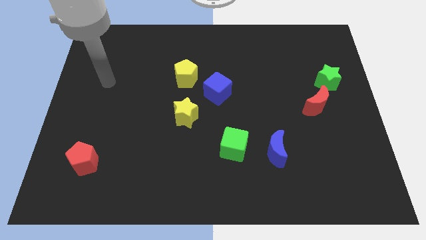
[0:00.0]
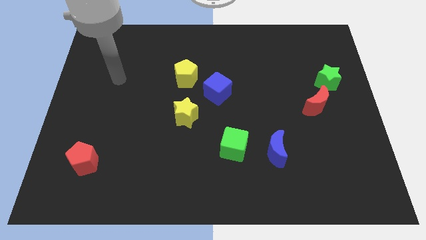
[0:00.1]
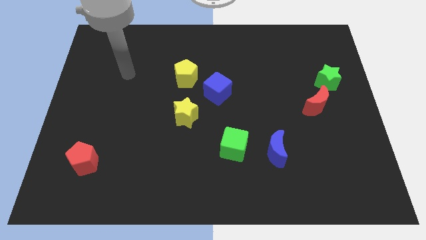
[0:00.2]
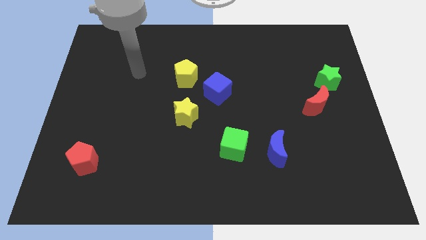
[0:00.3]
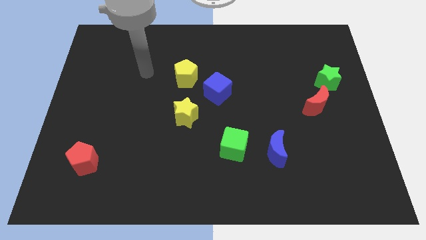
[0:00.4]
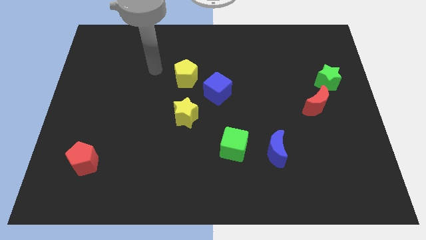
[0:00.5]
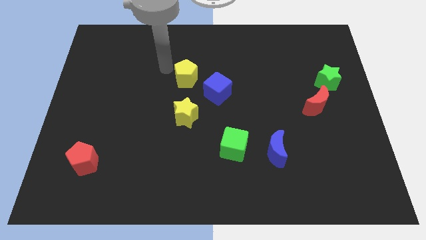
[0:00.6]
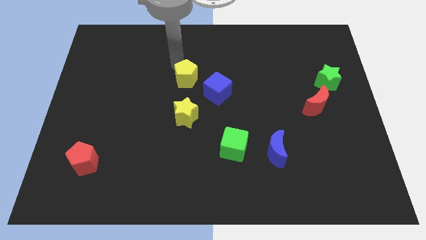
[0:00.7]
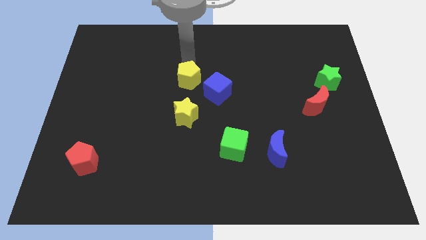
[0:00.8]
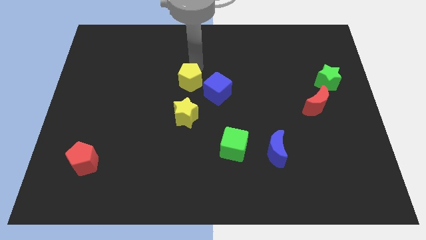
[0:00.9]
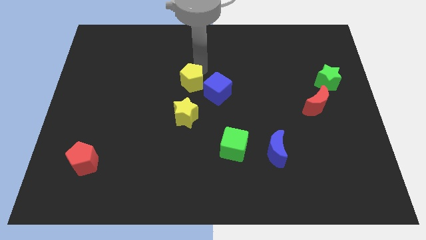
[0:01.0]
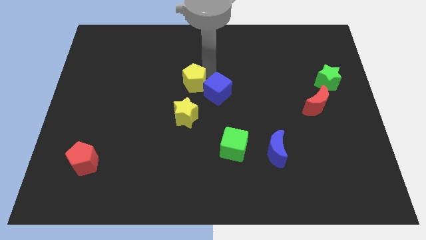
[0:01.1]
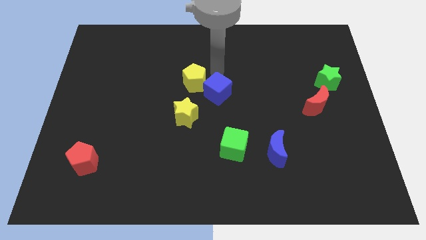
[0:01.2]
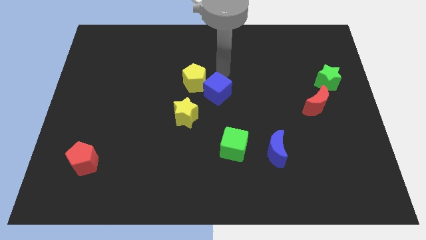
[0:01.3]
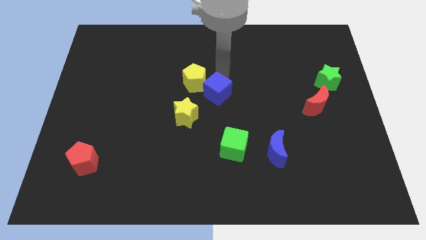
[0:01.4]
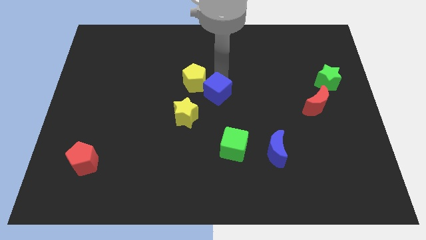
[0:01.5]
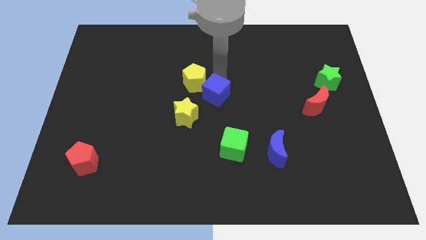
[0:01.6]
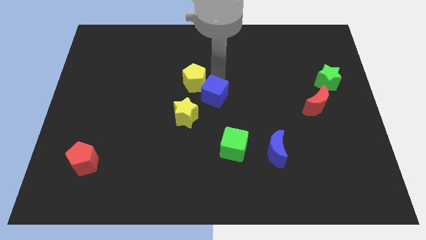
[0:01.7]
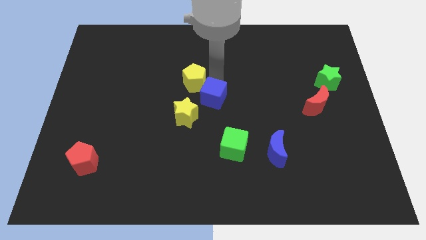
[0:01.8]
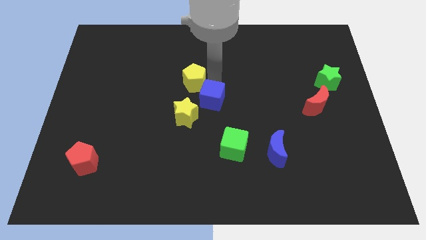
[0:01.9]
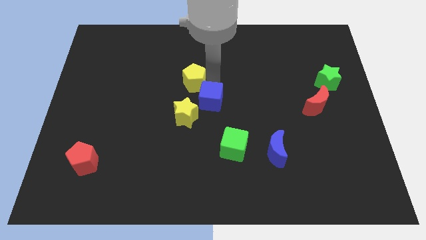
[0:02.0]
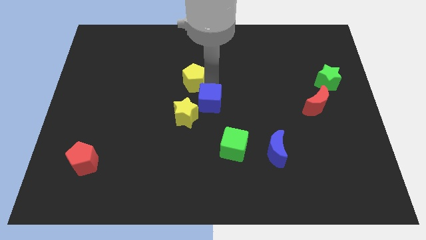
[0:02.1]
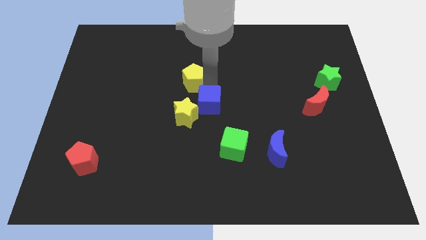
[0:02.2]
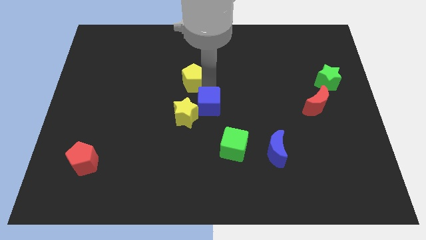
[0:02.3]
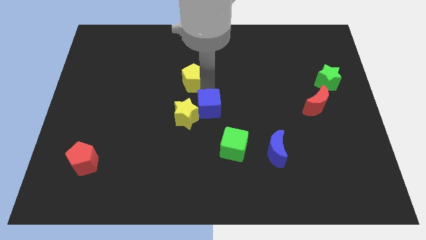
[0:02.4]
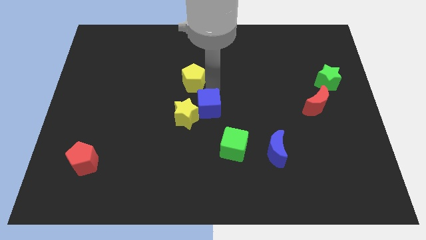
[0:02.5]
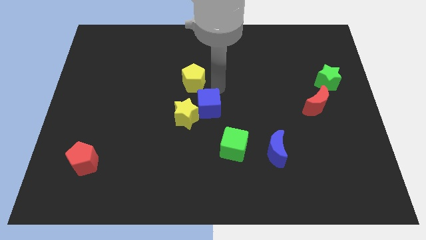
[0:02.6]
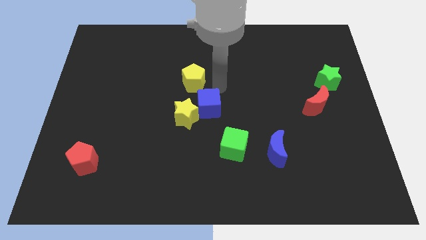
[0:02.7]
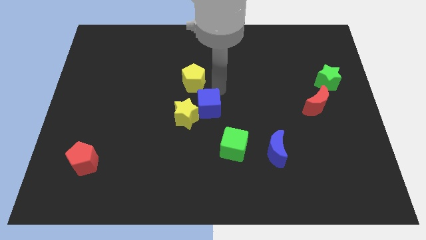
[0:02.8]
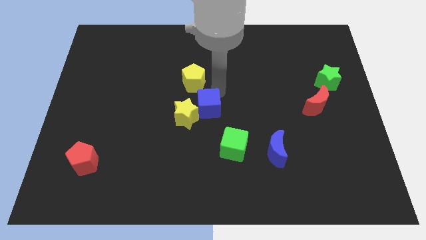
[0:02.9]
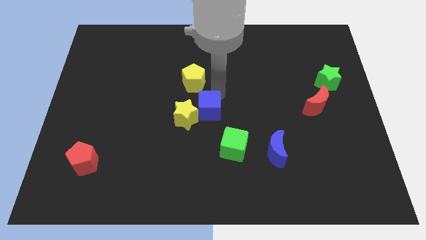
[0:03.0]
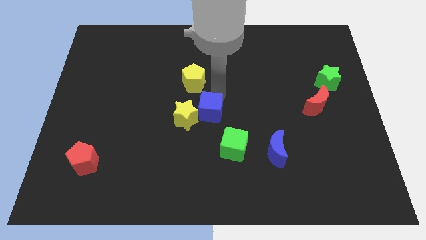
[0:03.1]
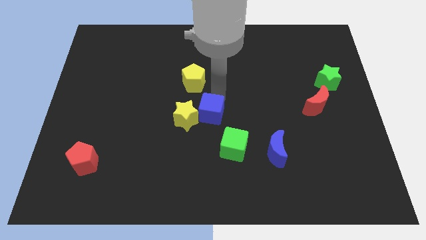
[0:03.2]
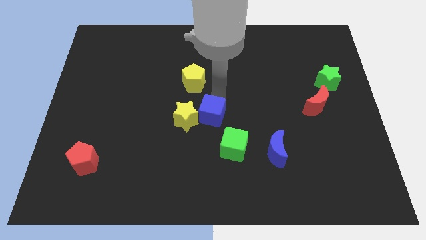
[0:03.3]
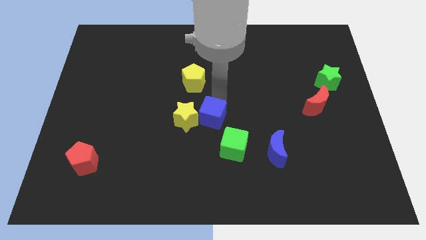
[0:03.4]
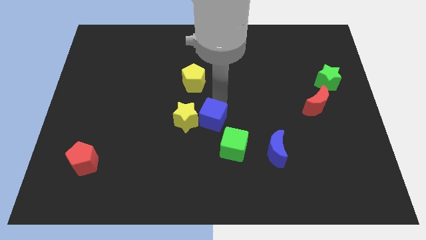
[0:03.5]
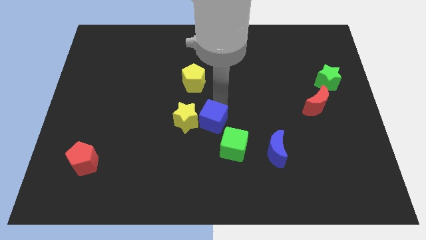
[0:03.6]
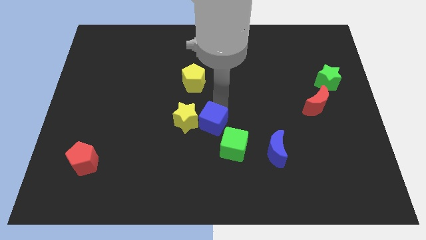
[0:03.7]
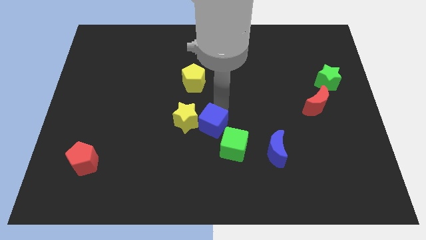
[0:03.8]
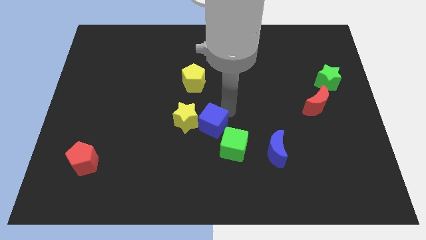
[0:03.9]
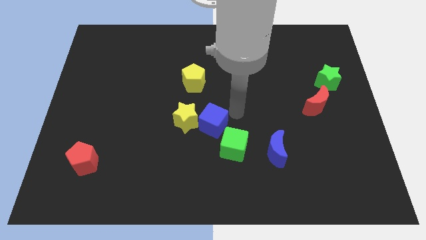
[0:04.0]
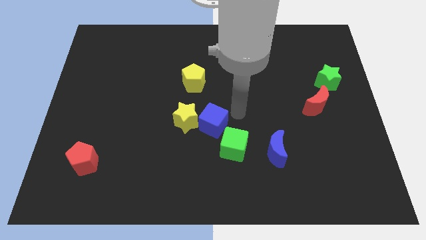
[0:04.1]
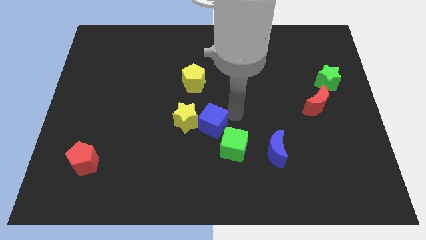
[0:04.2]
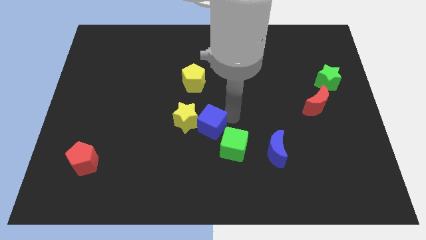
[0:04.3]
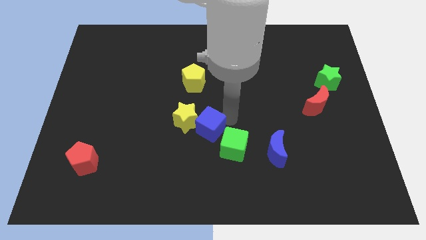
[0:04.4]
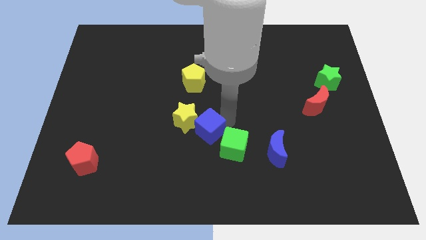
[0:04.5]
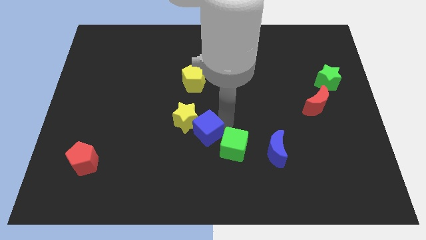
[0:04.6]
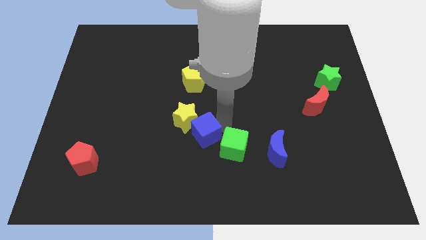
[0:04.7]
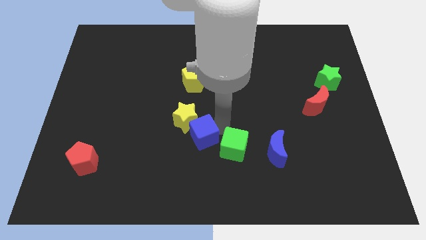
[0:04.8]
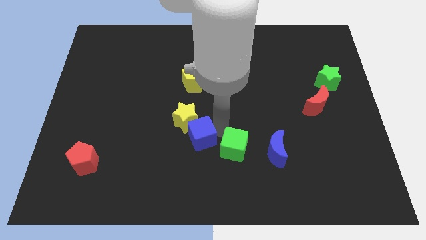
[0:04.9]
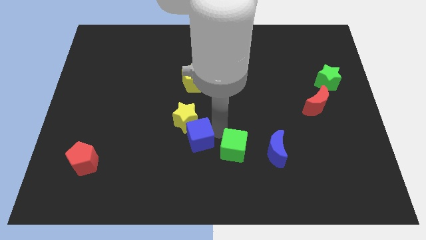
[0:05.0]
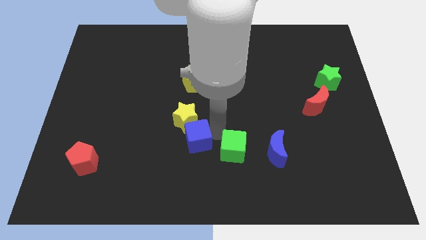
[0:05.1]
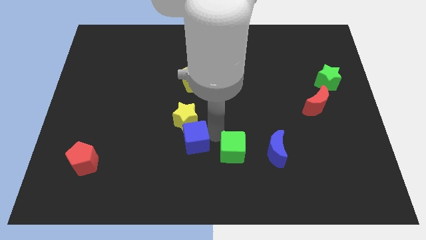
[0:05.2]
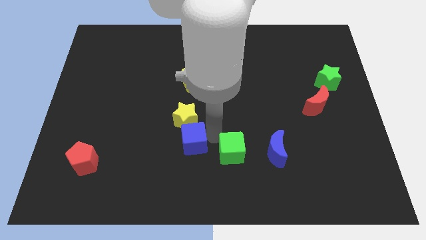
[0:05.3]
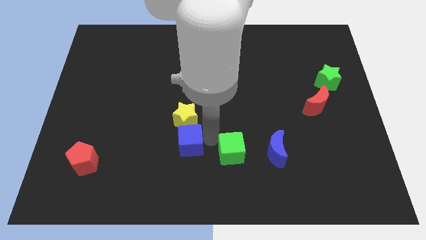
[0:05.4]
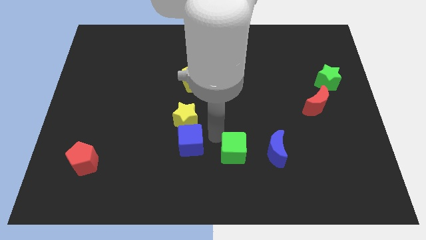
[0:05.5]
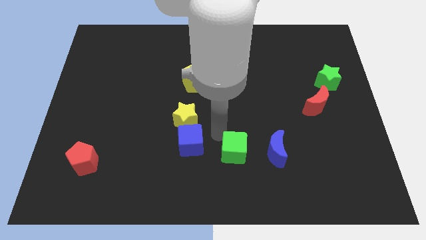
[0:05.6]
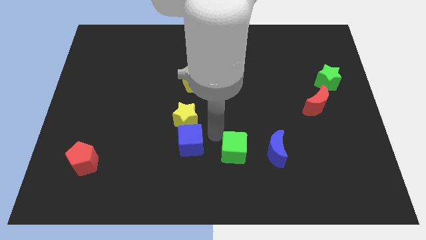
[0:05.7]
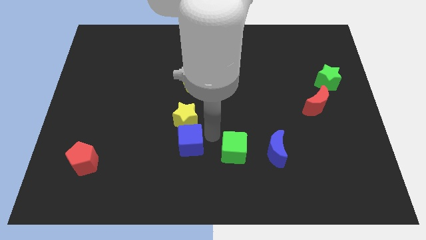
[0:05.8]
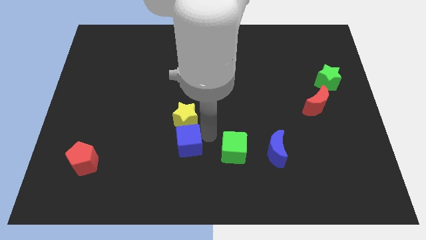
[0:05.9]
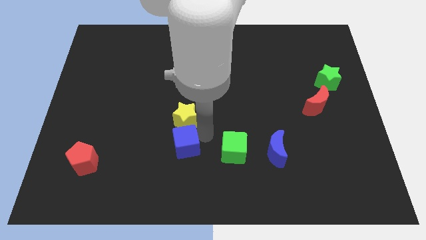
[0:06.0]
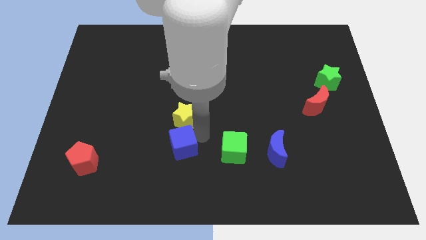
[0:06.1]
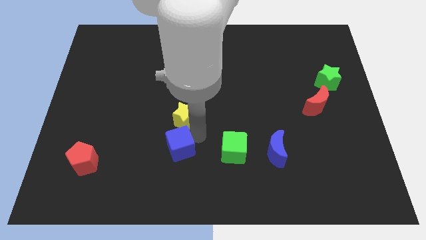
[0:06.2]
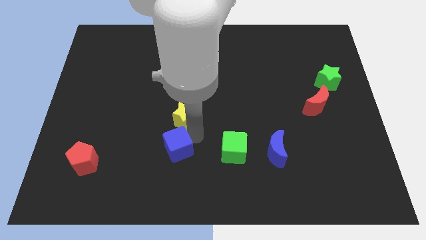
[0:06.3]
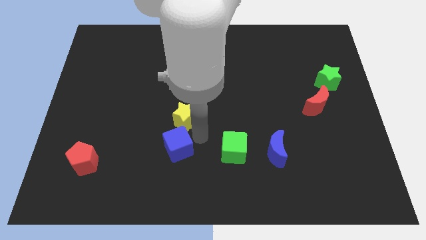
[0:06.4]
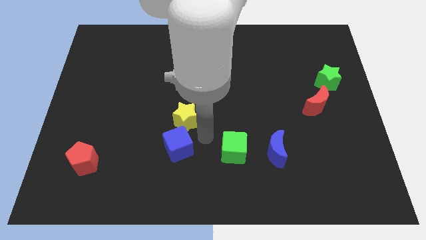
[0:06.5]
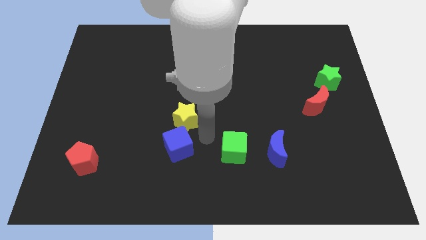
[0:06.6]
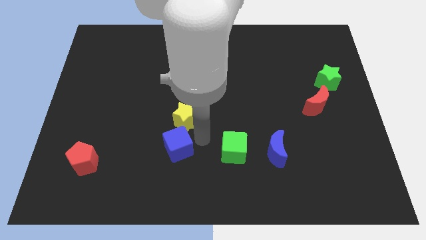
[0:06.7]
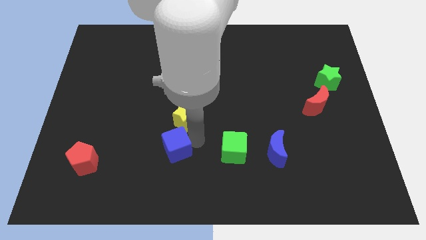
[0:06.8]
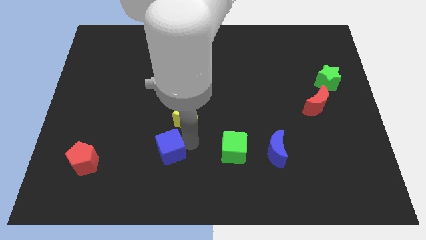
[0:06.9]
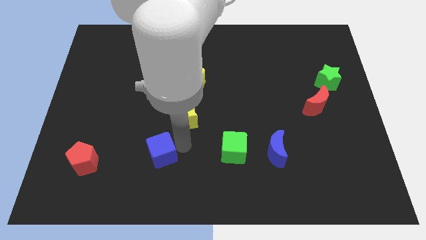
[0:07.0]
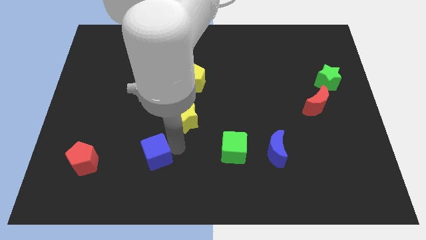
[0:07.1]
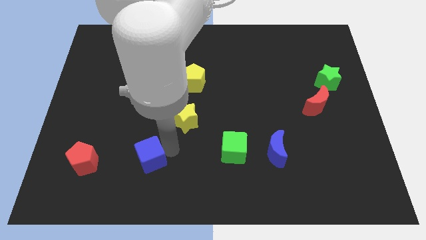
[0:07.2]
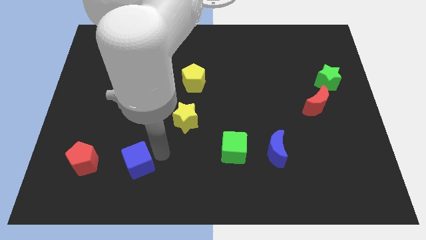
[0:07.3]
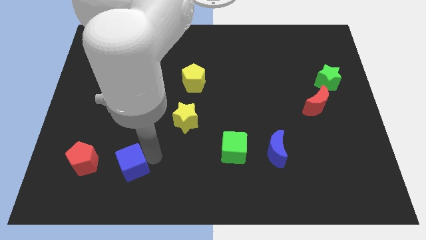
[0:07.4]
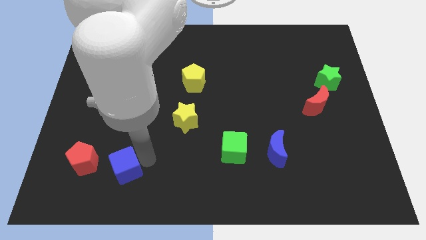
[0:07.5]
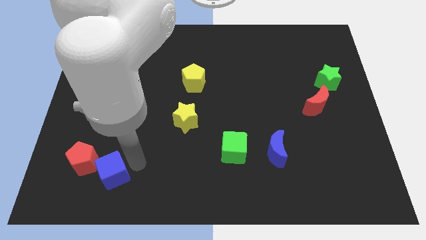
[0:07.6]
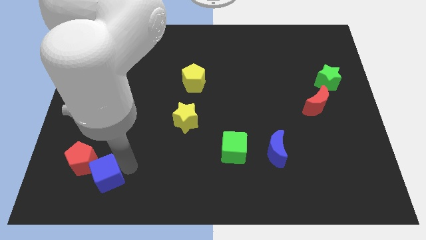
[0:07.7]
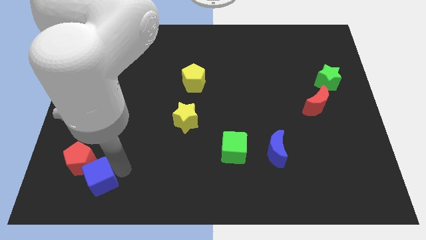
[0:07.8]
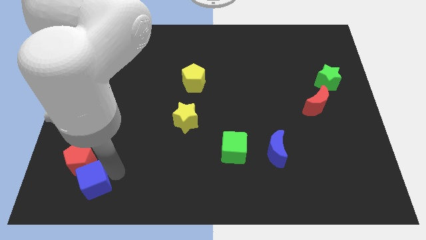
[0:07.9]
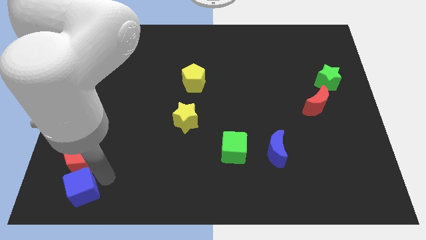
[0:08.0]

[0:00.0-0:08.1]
slide the blue cube to the bottom left corner
